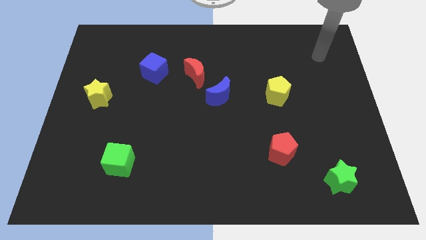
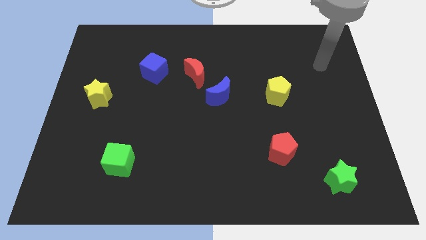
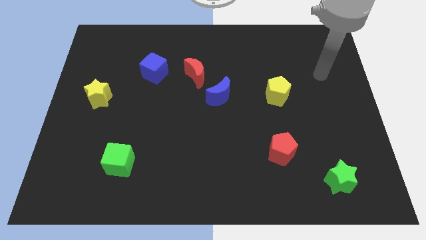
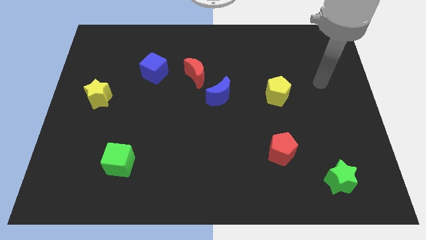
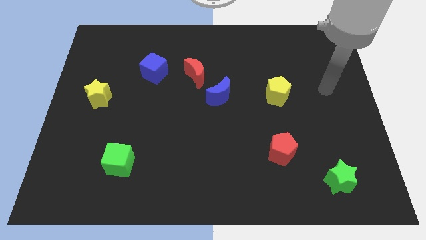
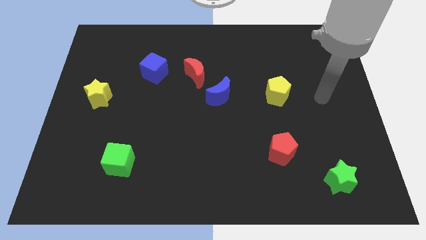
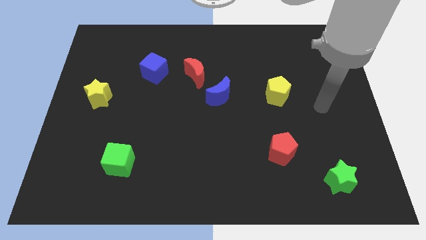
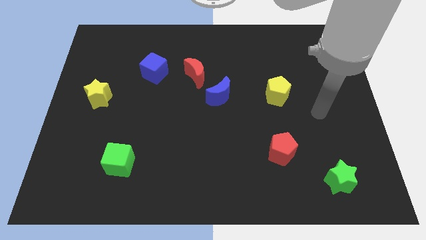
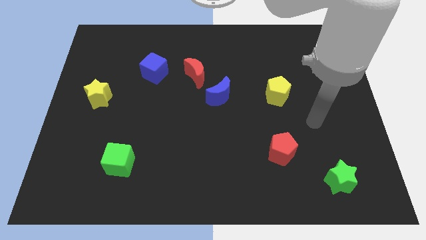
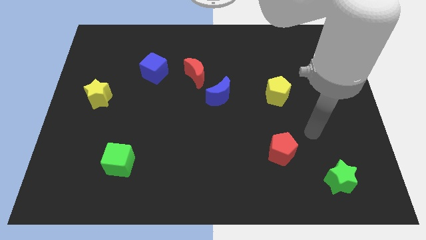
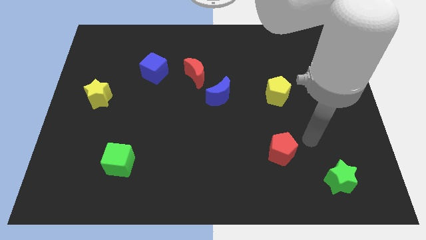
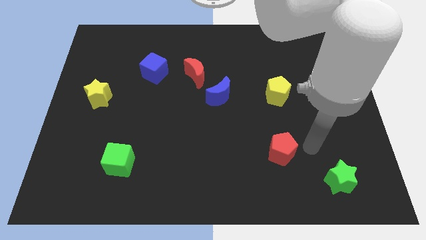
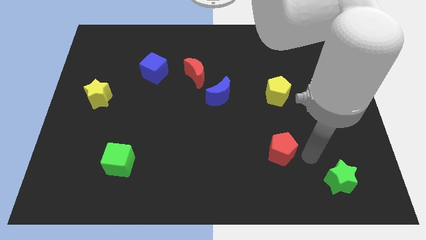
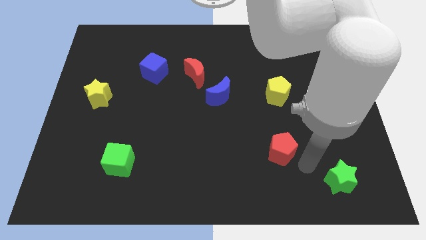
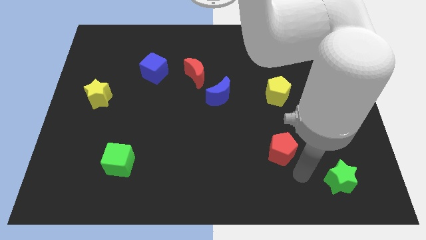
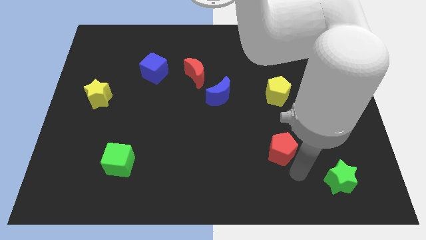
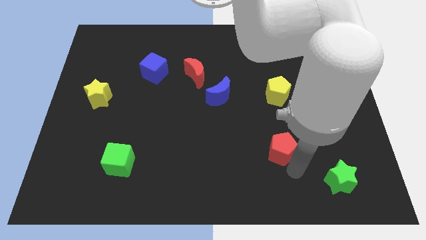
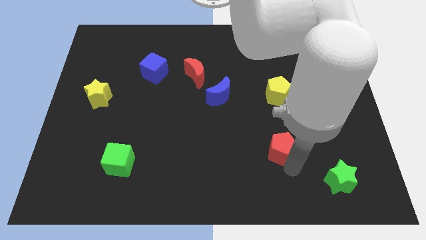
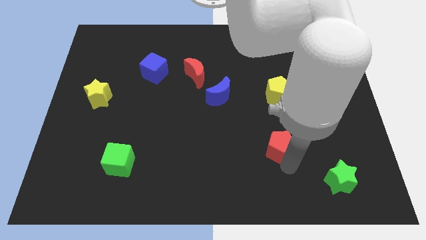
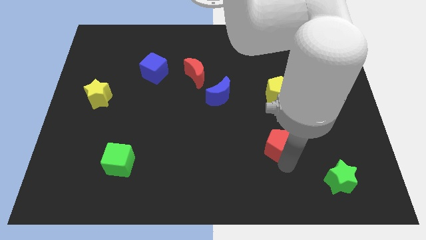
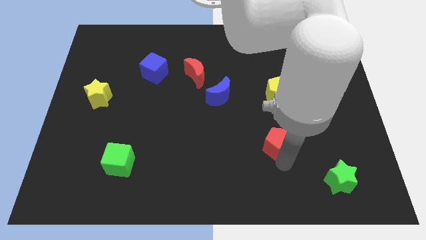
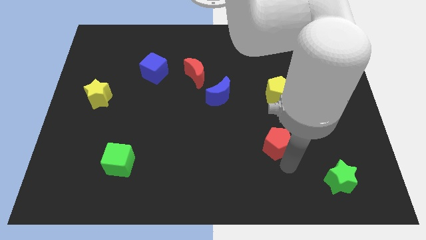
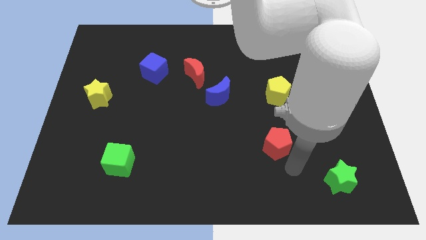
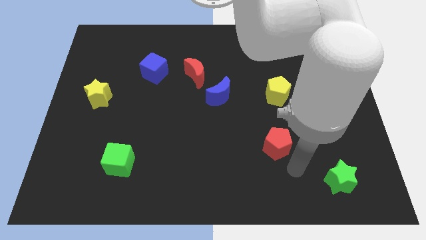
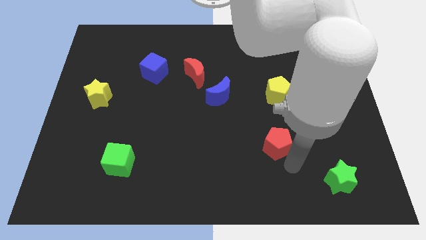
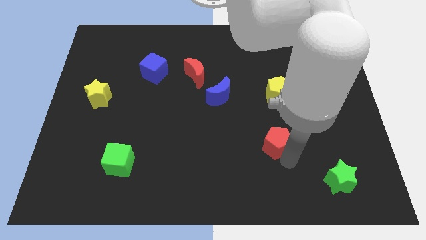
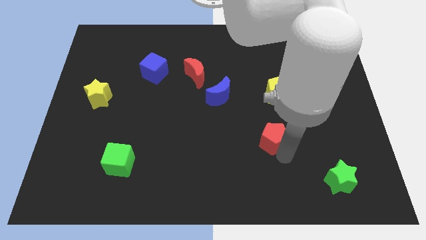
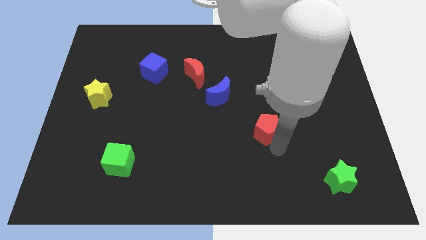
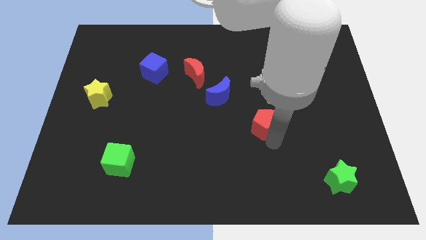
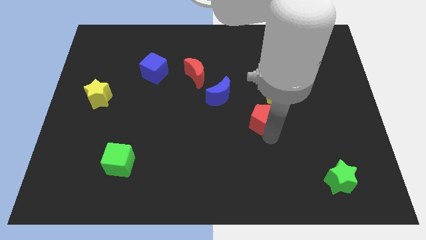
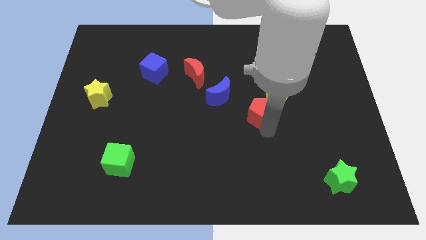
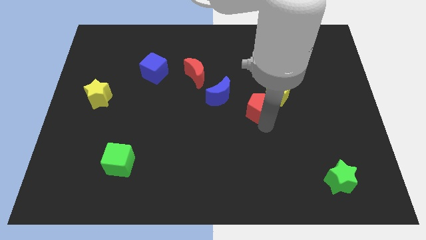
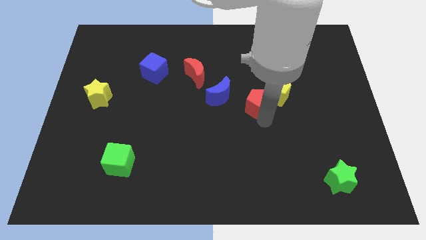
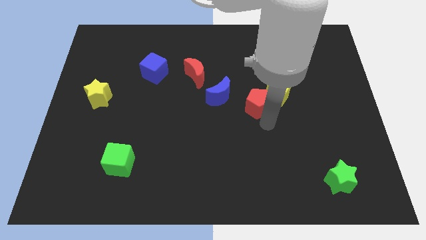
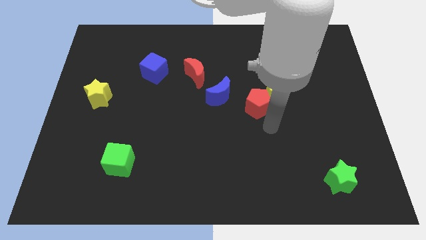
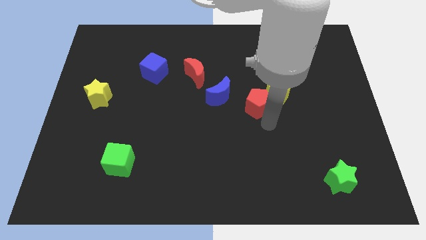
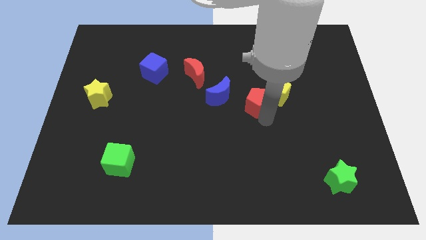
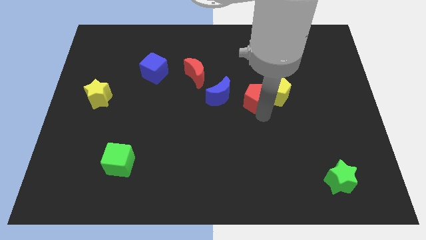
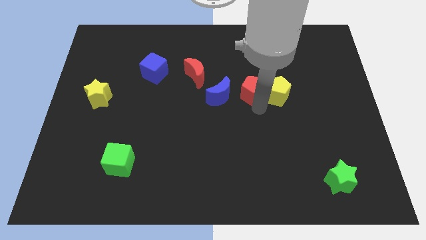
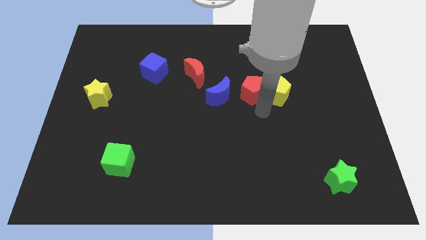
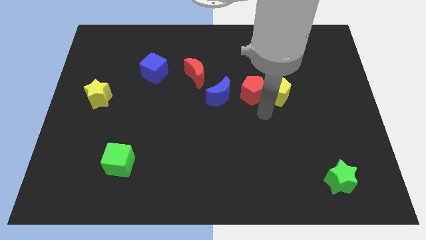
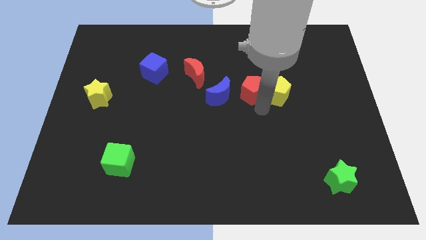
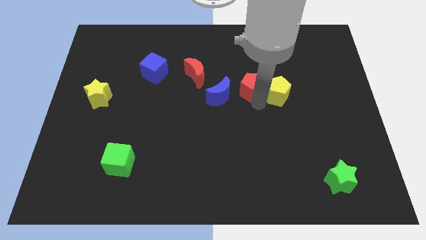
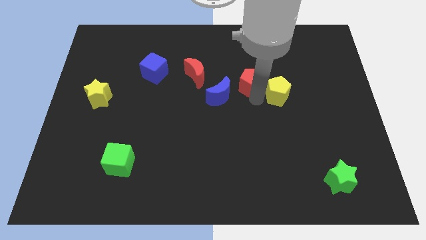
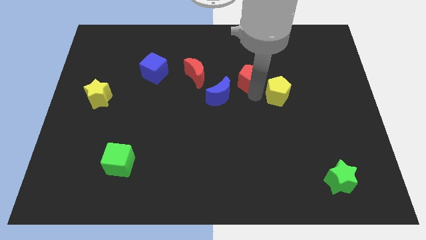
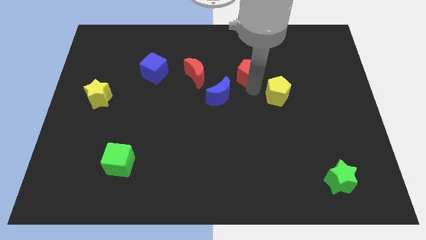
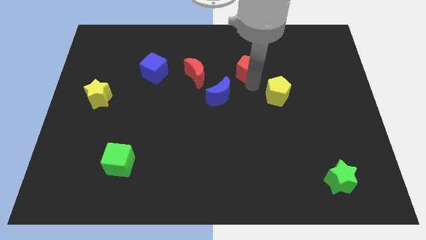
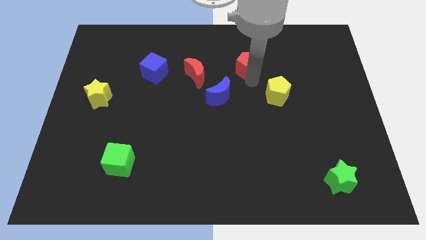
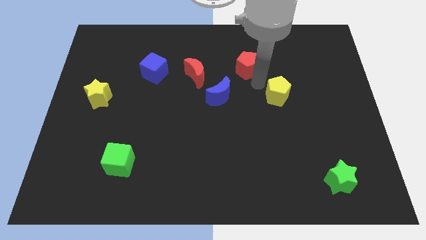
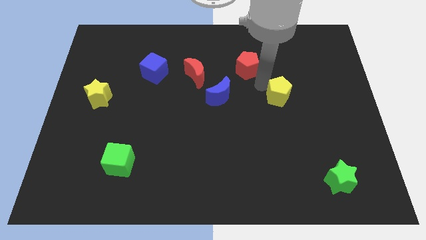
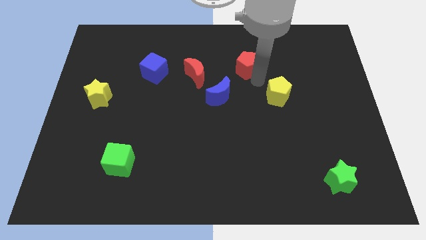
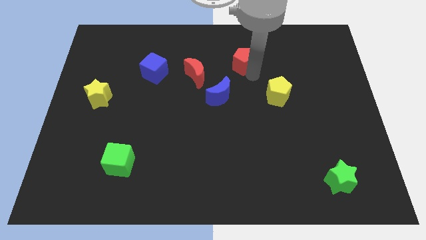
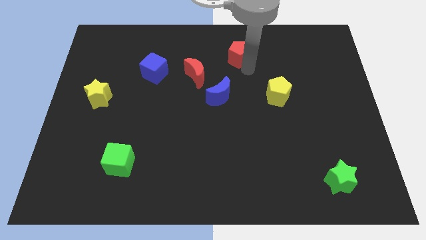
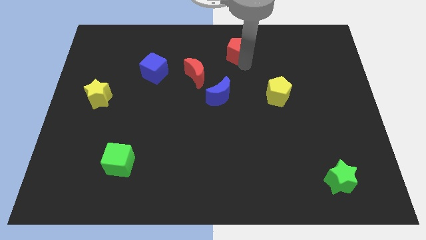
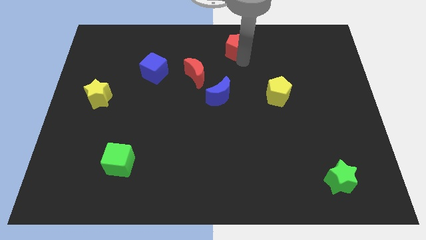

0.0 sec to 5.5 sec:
push the red pentagon to the top

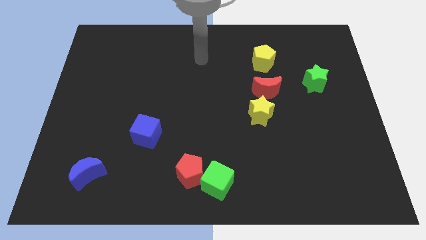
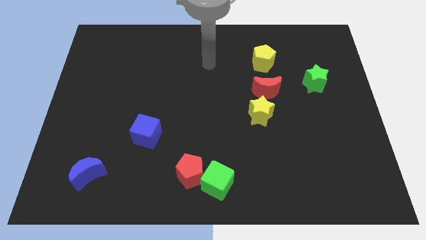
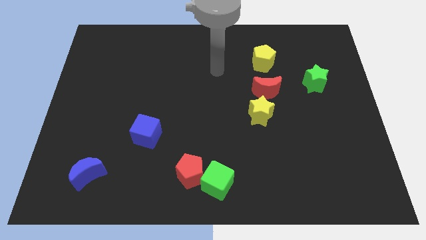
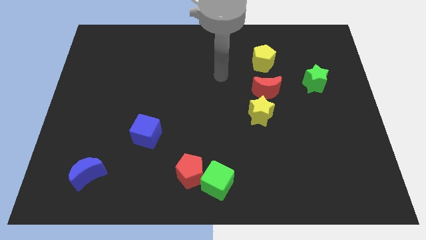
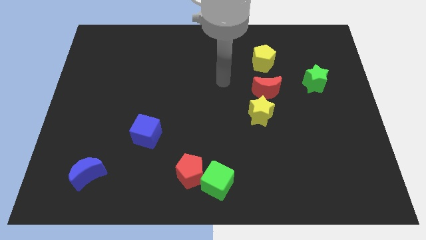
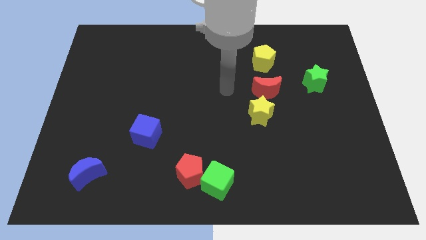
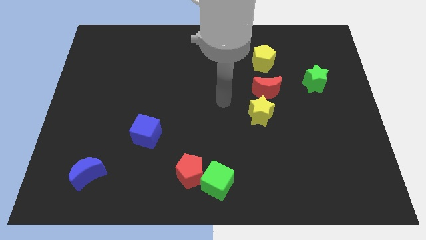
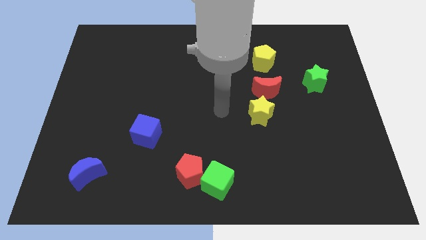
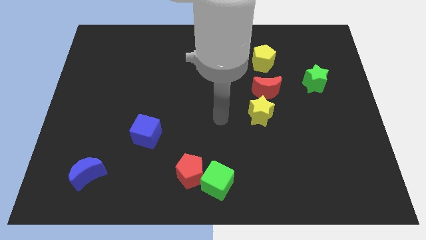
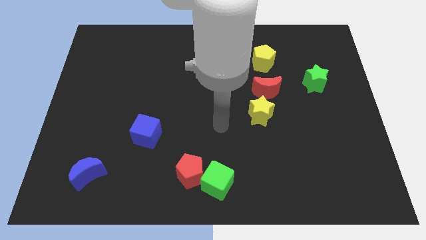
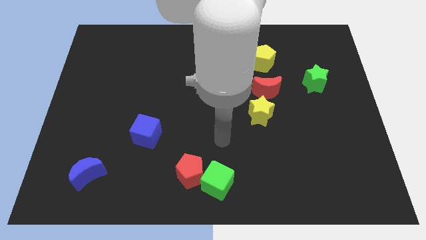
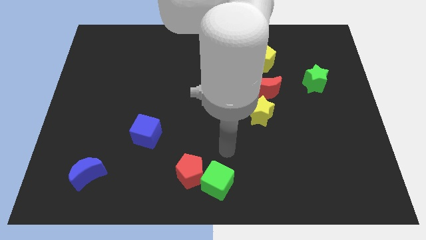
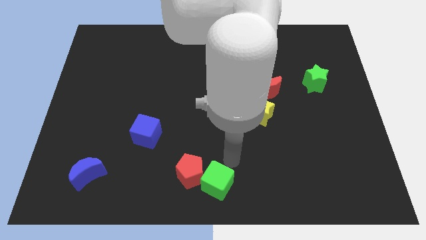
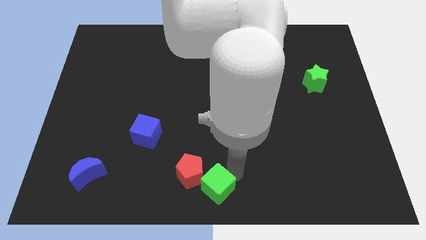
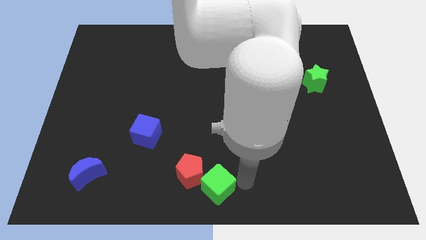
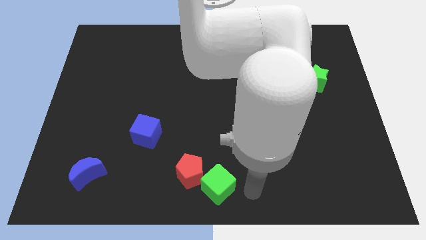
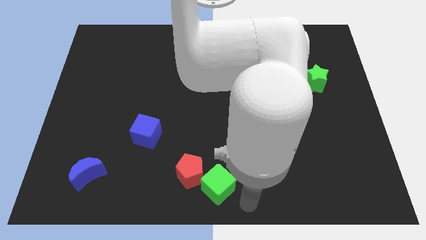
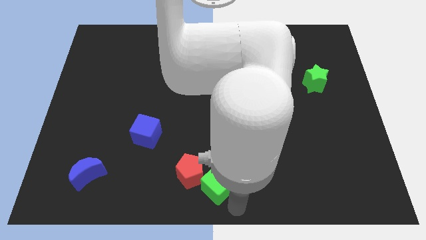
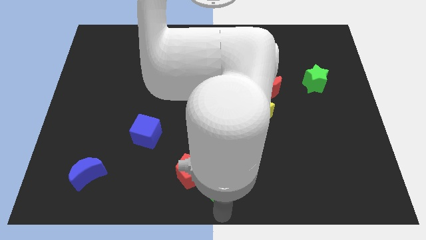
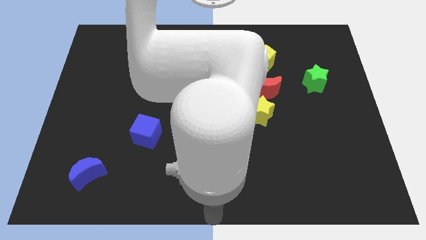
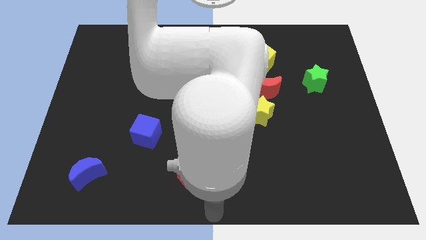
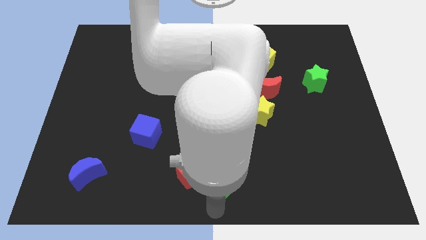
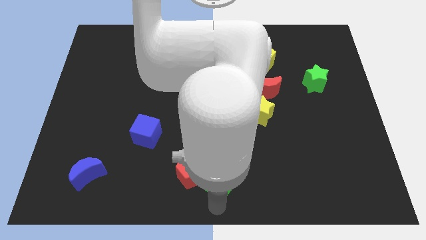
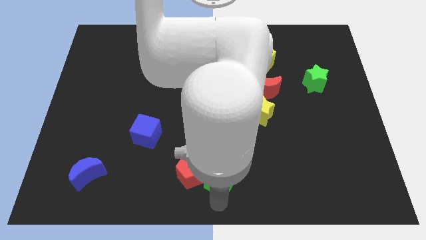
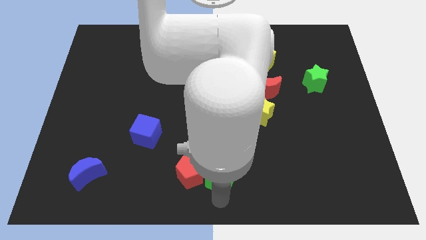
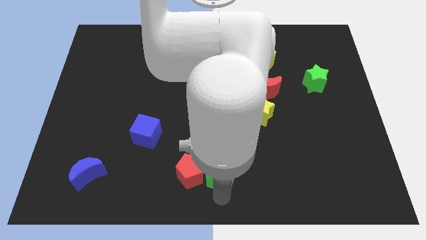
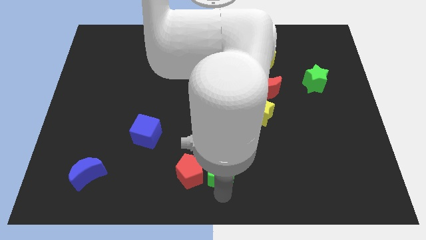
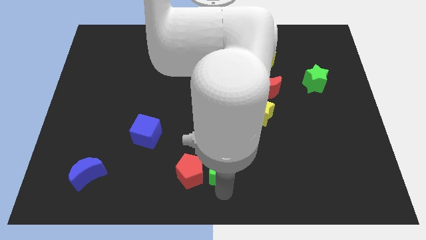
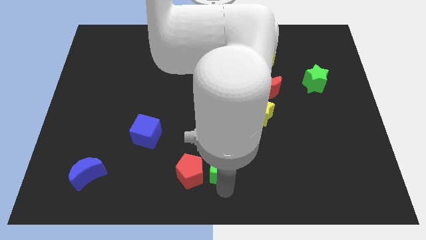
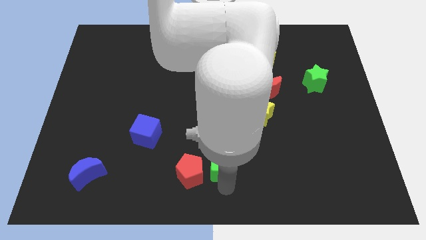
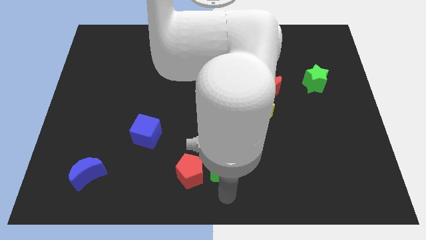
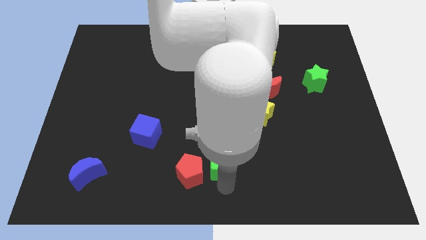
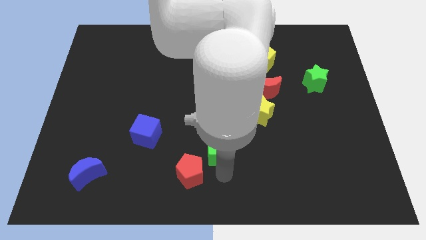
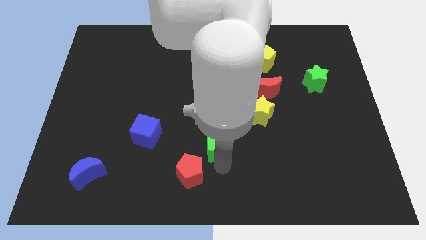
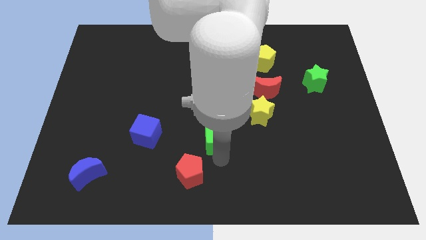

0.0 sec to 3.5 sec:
slide the green cube to the center
